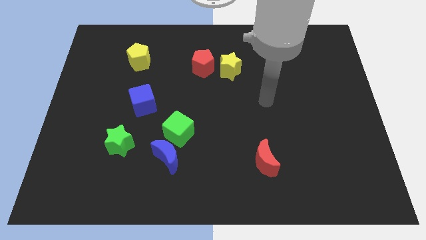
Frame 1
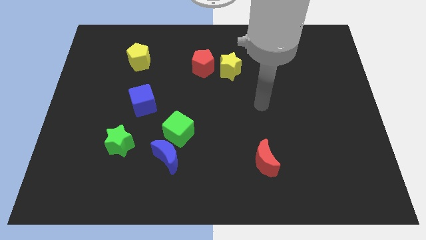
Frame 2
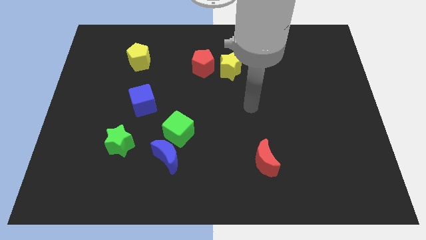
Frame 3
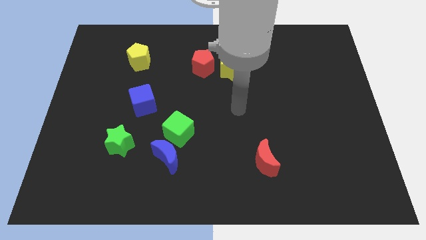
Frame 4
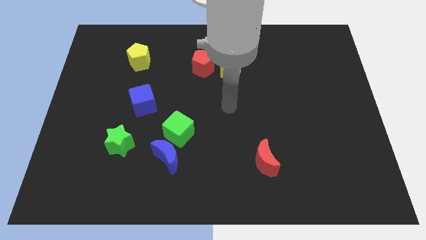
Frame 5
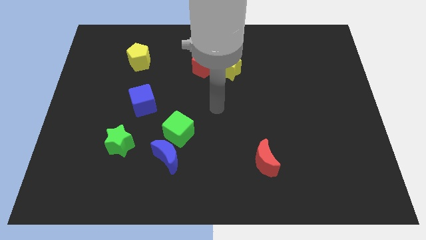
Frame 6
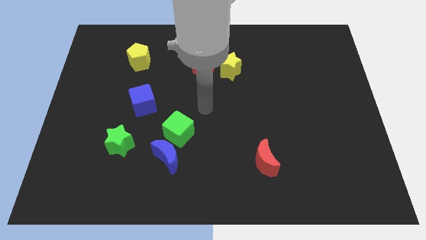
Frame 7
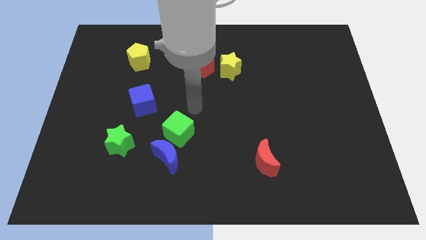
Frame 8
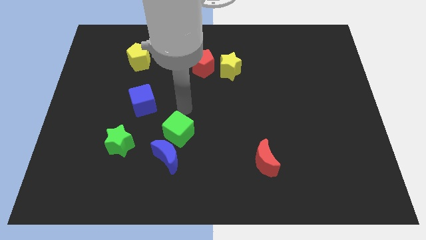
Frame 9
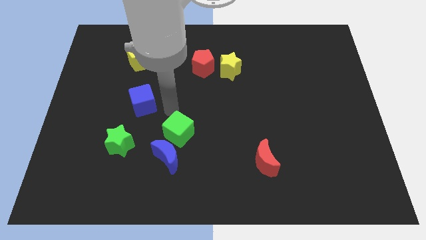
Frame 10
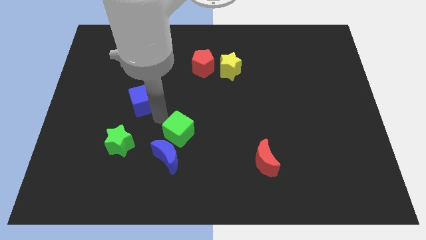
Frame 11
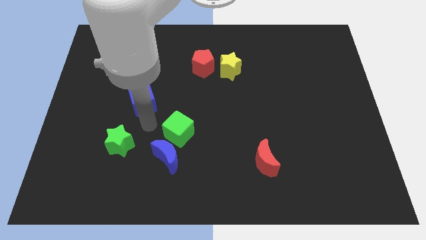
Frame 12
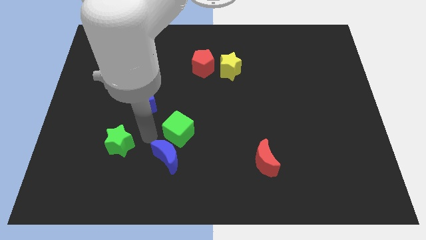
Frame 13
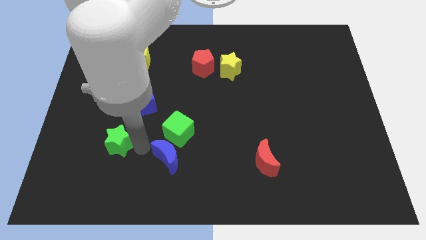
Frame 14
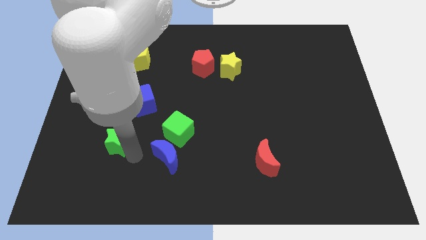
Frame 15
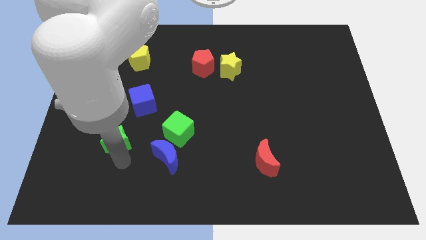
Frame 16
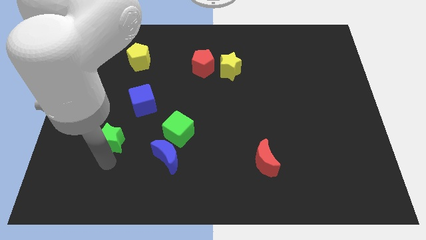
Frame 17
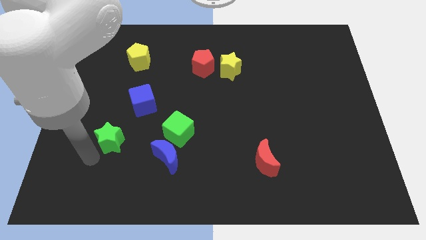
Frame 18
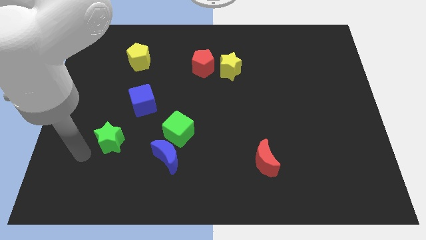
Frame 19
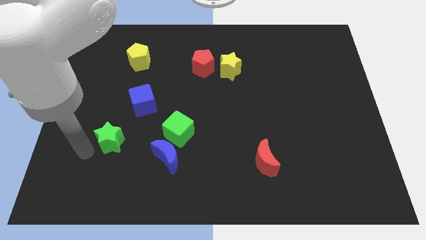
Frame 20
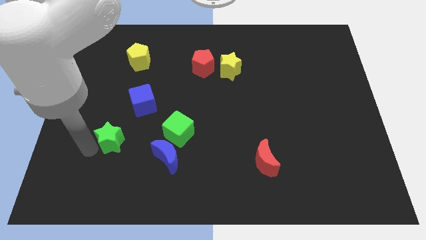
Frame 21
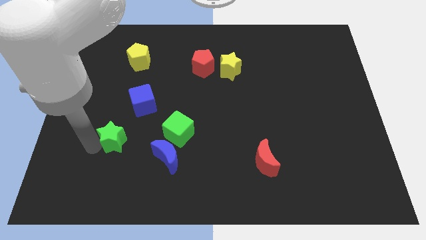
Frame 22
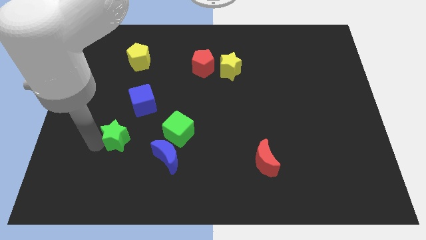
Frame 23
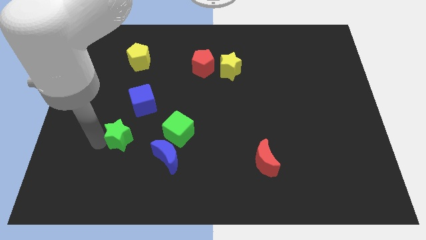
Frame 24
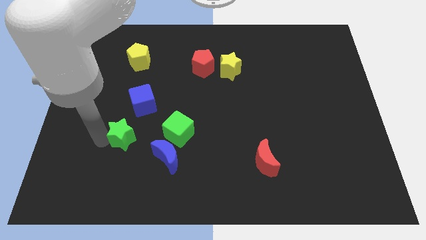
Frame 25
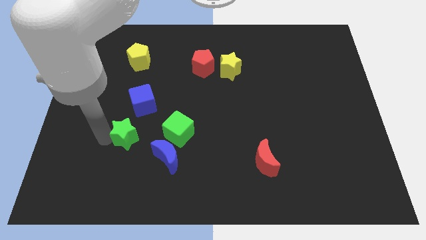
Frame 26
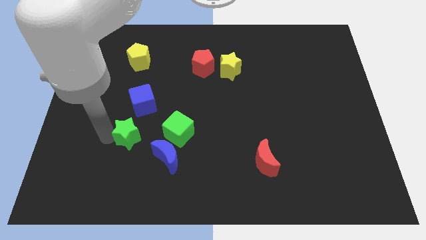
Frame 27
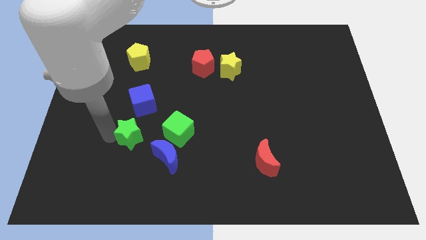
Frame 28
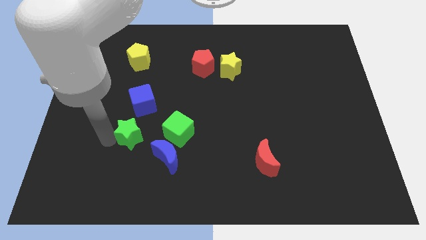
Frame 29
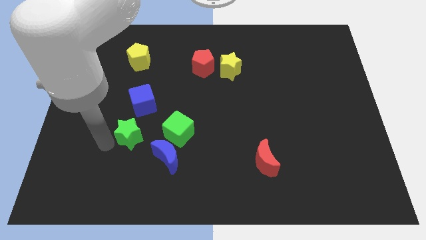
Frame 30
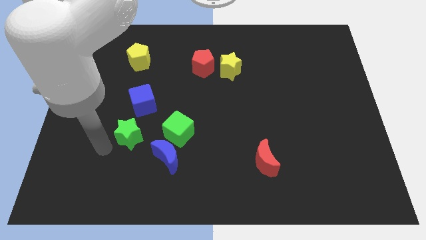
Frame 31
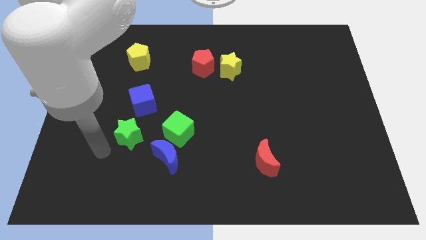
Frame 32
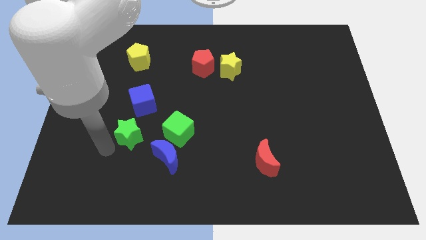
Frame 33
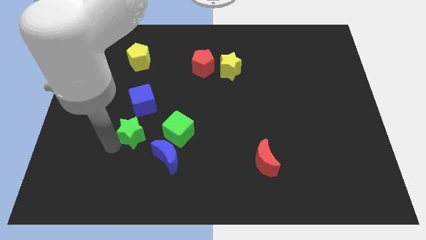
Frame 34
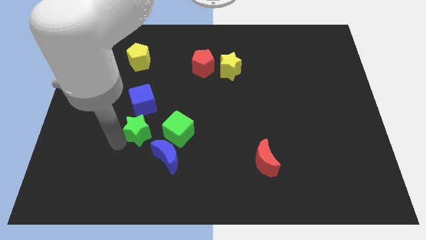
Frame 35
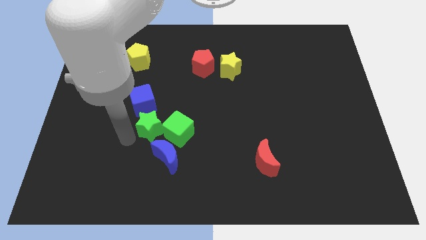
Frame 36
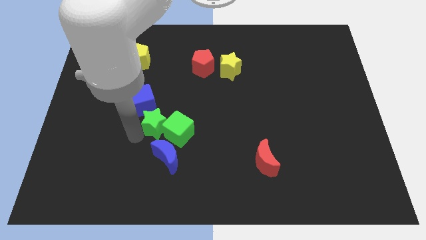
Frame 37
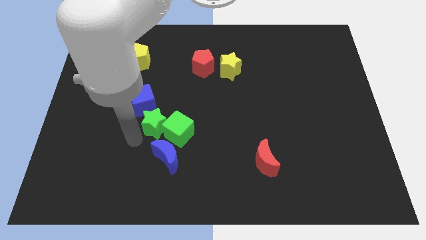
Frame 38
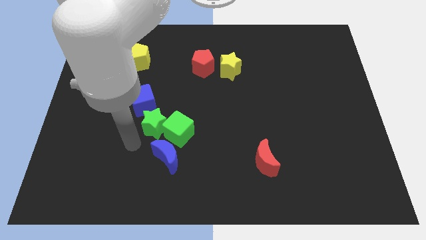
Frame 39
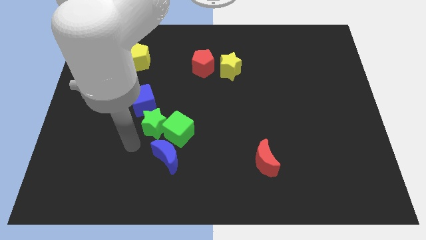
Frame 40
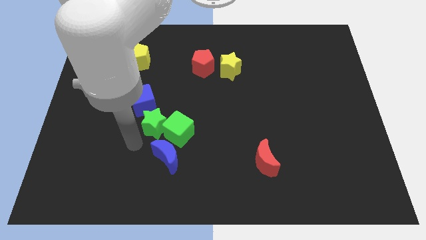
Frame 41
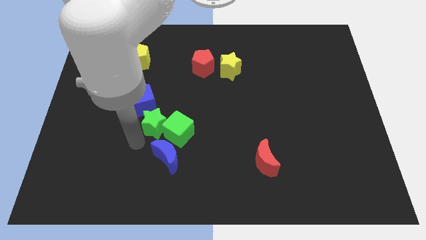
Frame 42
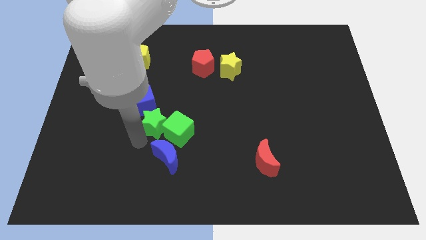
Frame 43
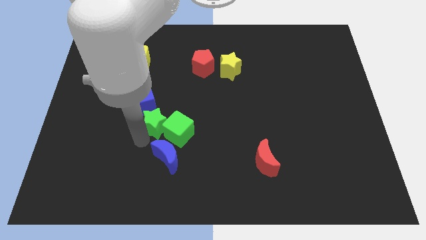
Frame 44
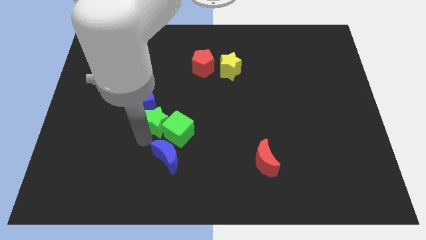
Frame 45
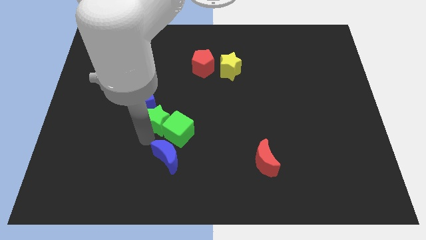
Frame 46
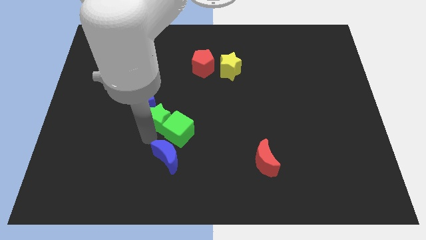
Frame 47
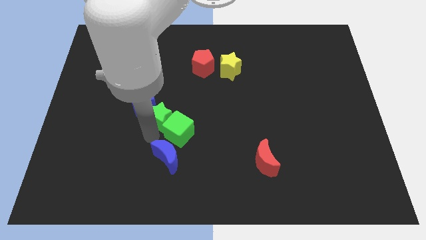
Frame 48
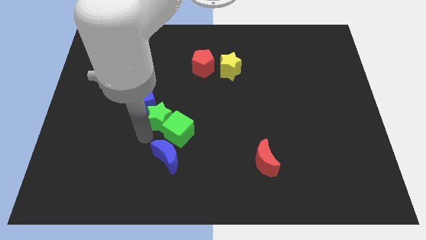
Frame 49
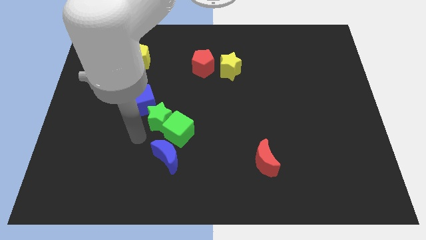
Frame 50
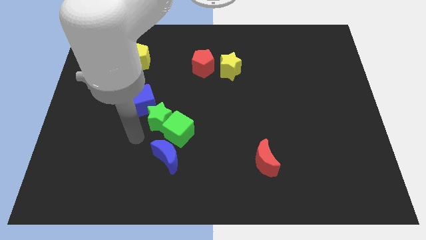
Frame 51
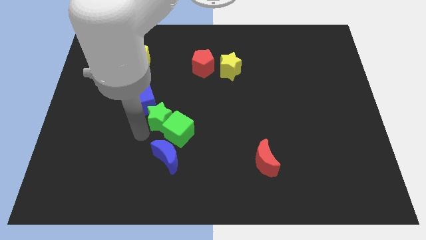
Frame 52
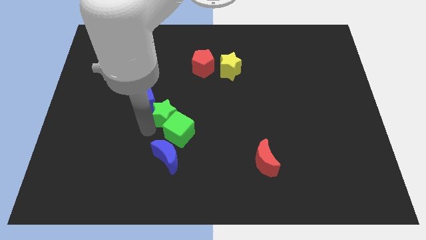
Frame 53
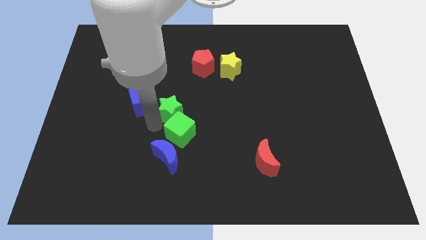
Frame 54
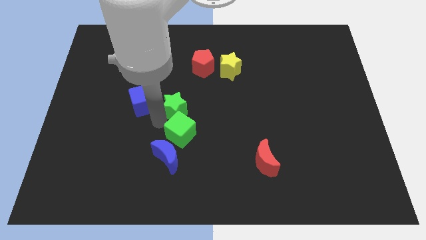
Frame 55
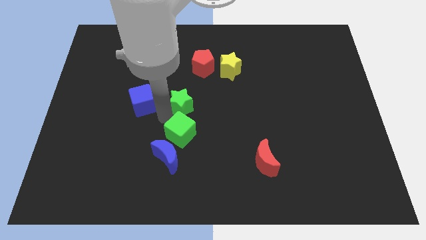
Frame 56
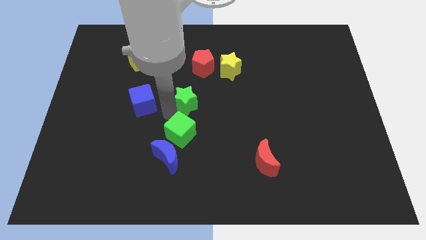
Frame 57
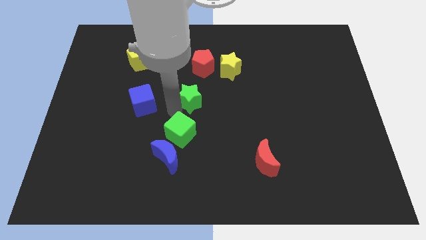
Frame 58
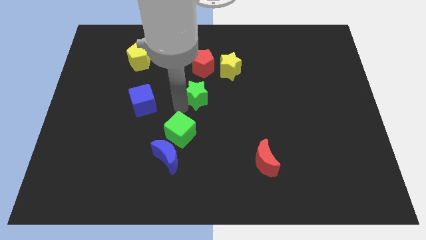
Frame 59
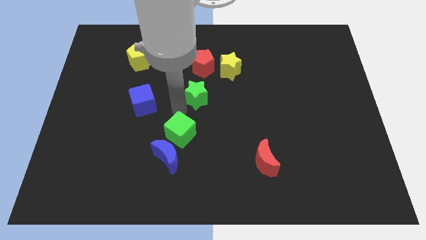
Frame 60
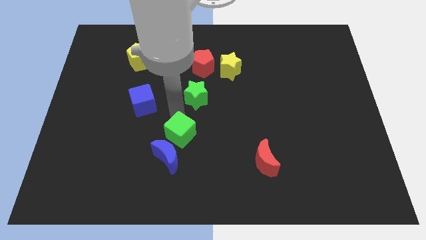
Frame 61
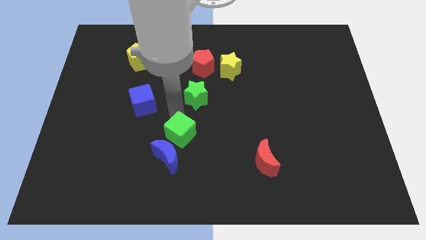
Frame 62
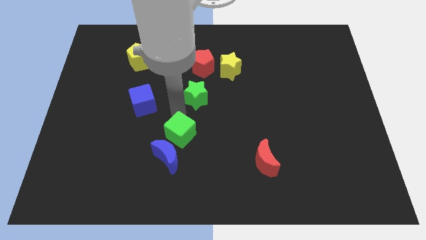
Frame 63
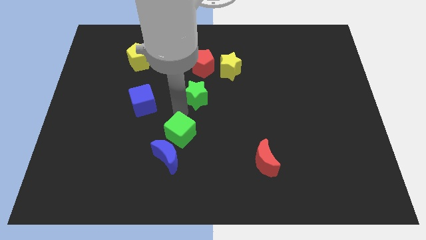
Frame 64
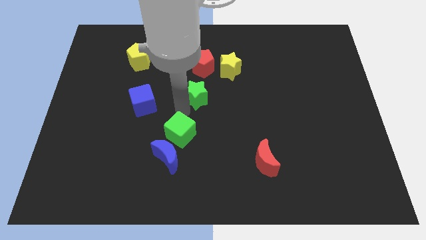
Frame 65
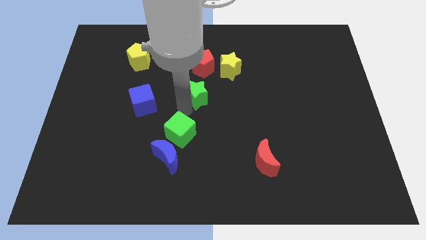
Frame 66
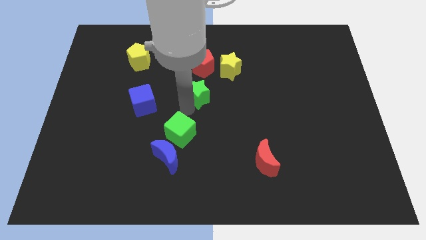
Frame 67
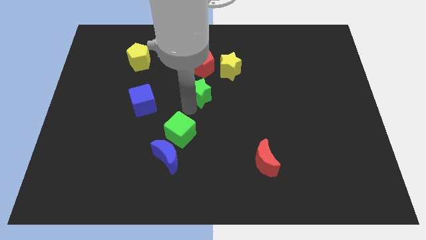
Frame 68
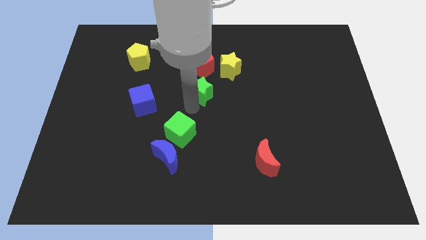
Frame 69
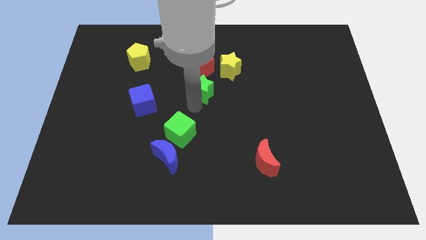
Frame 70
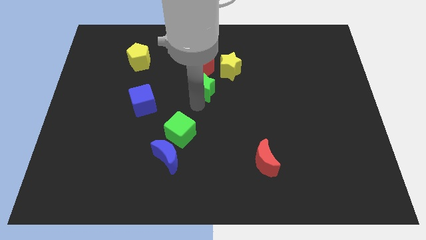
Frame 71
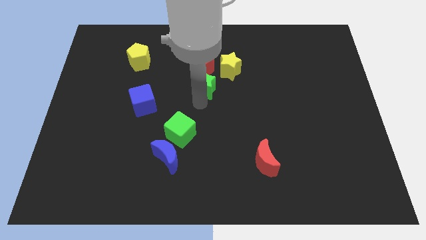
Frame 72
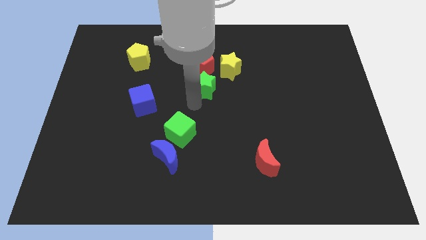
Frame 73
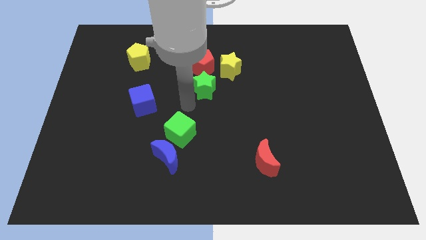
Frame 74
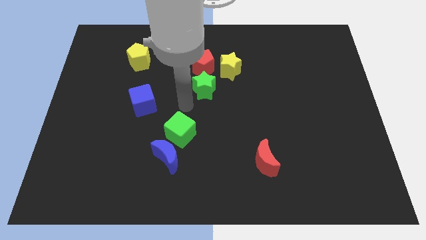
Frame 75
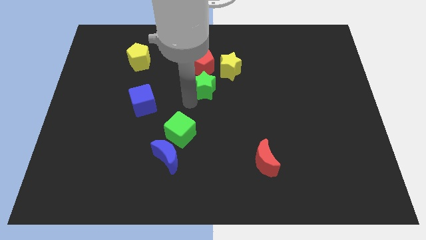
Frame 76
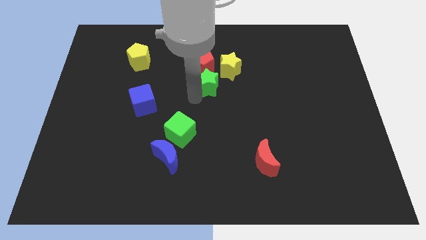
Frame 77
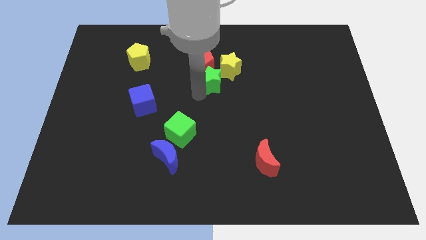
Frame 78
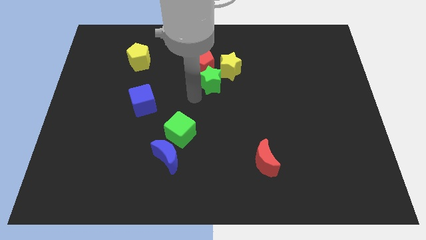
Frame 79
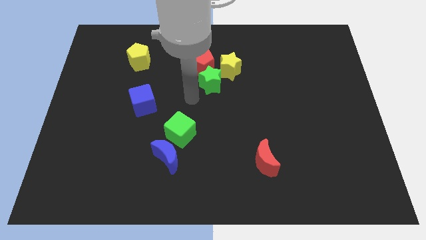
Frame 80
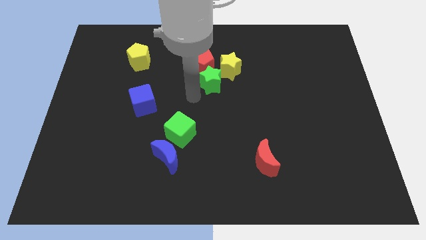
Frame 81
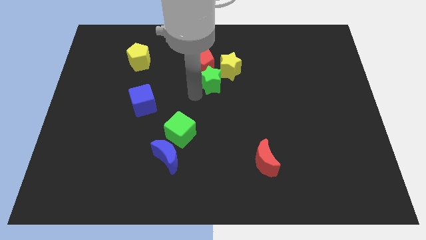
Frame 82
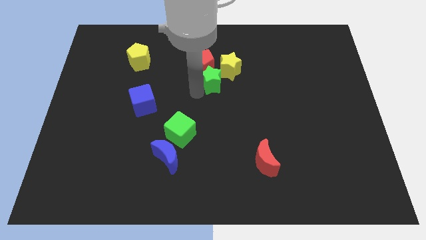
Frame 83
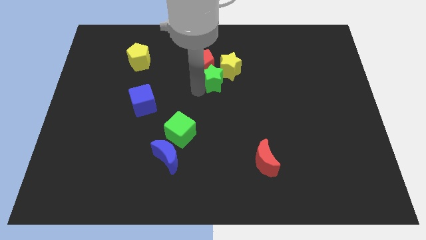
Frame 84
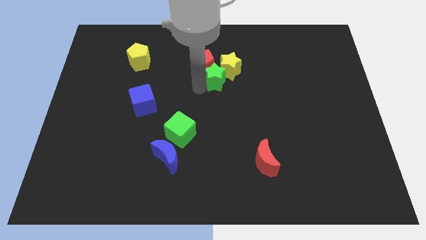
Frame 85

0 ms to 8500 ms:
move the green star close to the yellow star
